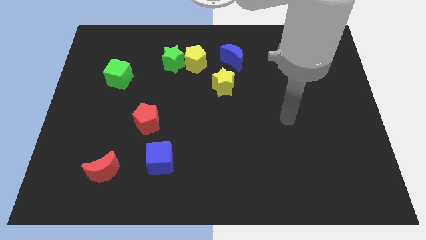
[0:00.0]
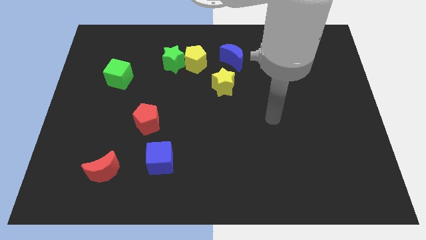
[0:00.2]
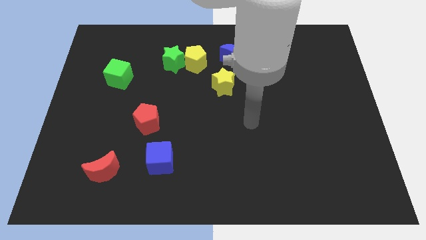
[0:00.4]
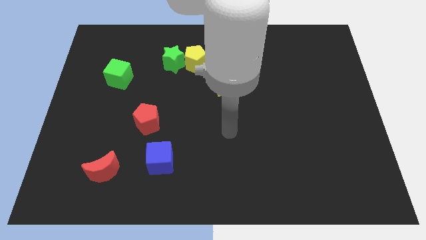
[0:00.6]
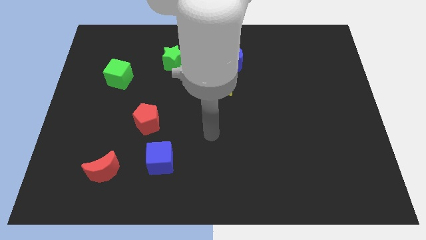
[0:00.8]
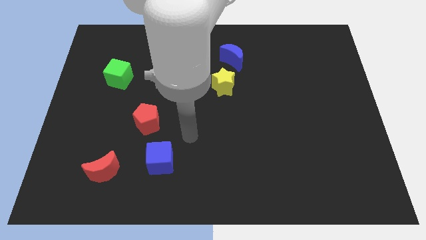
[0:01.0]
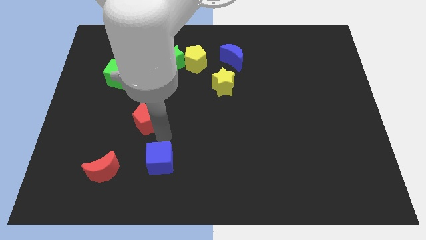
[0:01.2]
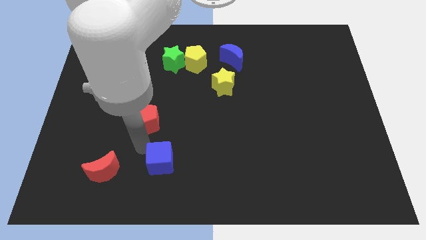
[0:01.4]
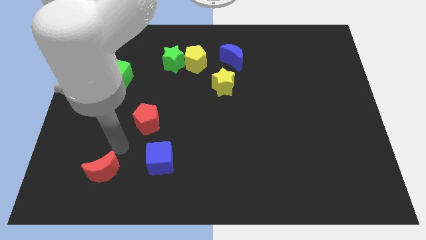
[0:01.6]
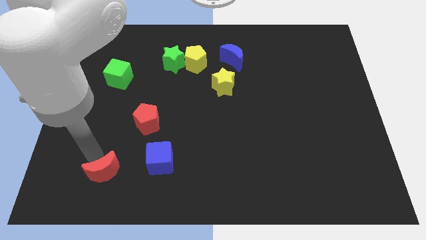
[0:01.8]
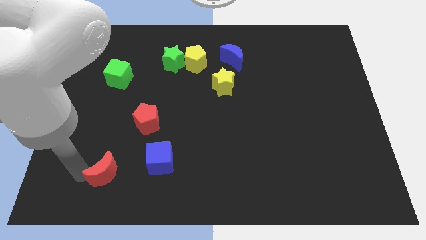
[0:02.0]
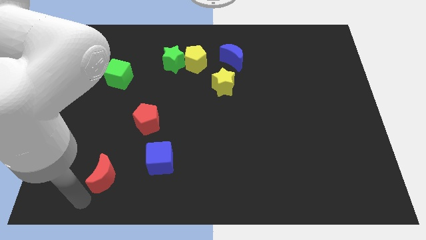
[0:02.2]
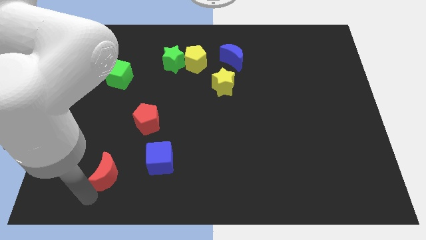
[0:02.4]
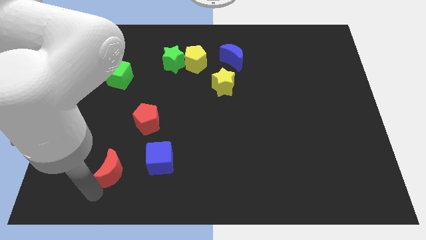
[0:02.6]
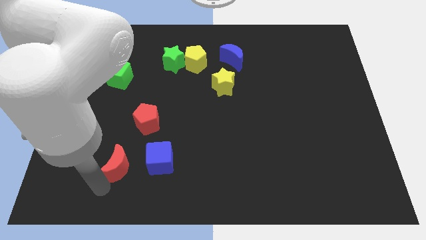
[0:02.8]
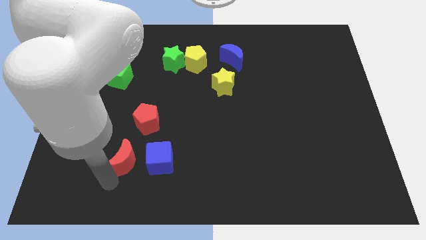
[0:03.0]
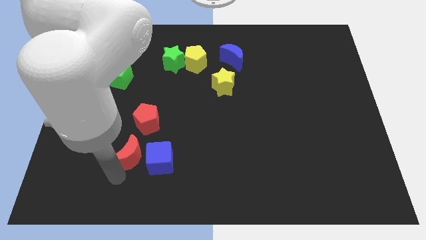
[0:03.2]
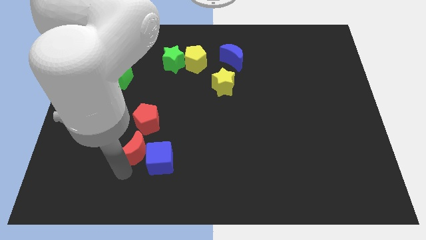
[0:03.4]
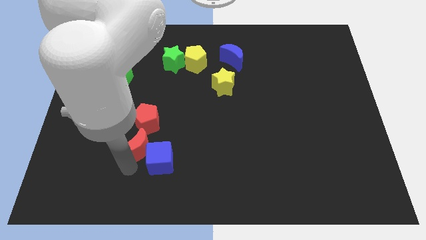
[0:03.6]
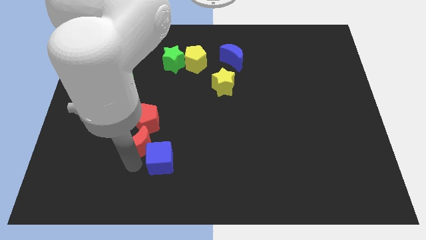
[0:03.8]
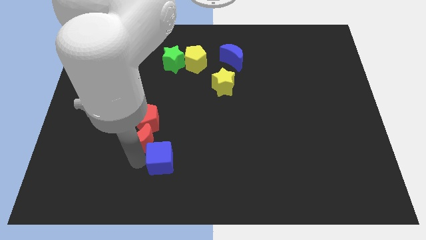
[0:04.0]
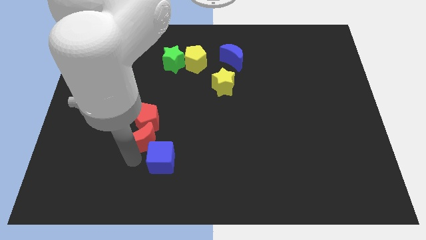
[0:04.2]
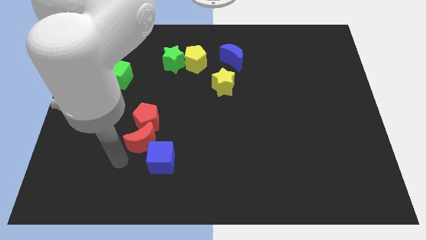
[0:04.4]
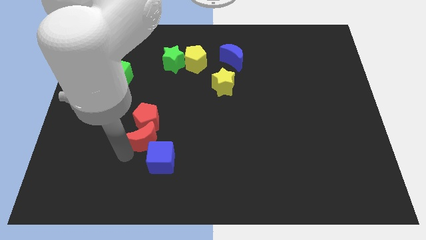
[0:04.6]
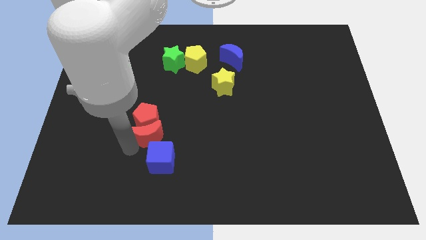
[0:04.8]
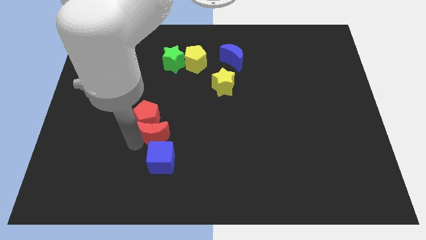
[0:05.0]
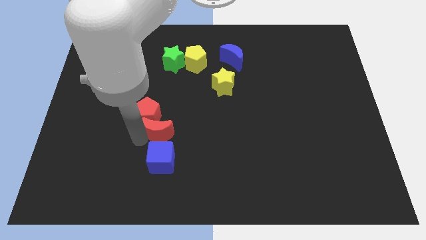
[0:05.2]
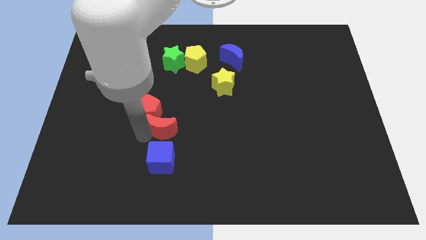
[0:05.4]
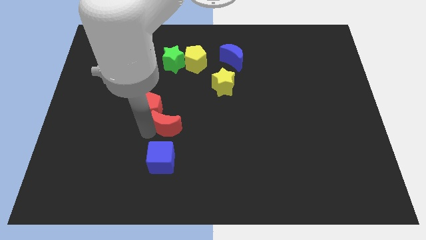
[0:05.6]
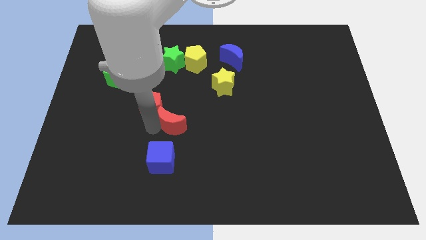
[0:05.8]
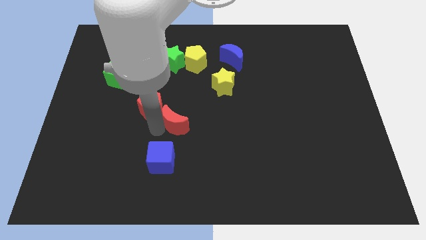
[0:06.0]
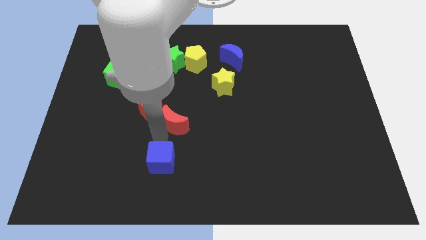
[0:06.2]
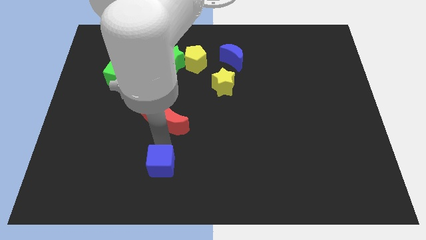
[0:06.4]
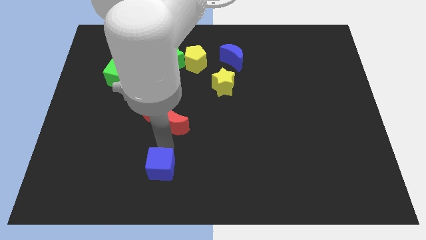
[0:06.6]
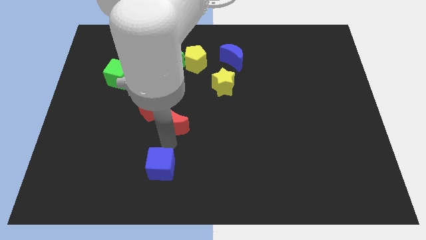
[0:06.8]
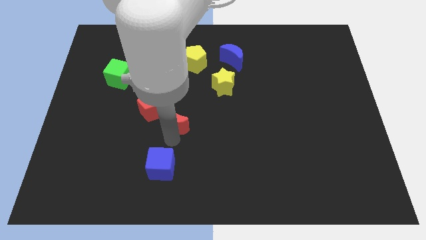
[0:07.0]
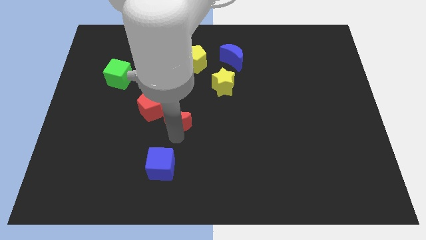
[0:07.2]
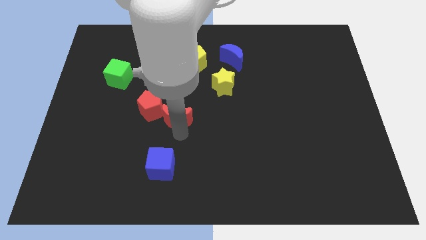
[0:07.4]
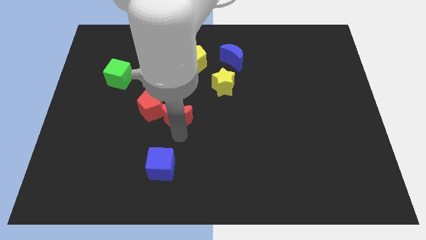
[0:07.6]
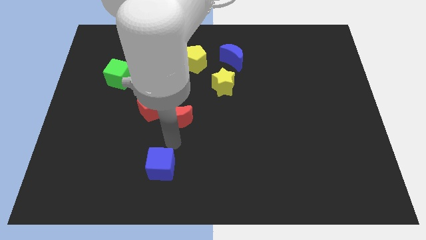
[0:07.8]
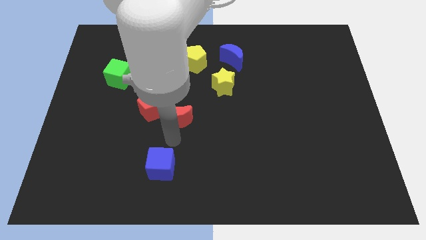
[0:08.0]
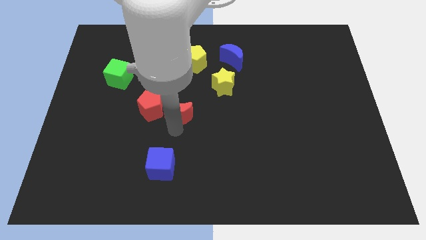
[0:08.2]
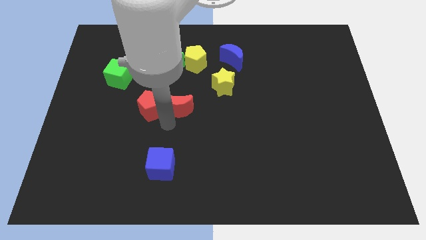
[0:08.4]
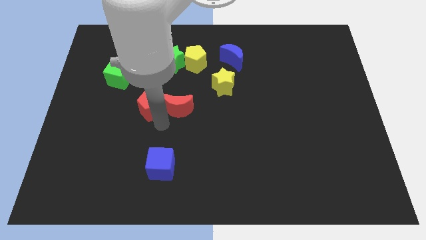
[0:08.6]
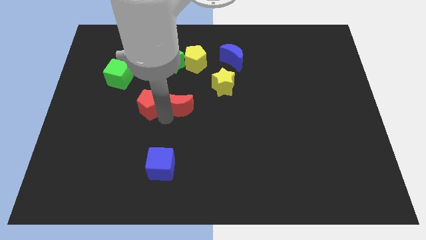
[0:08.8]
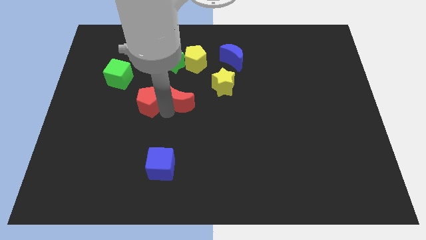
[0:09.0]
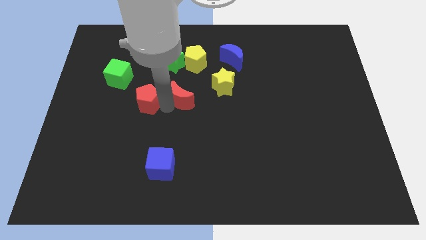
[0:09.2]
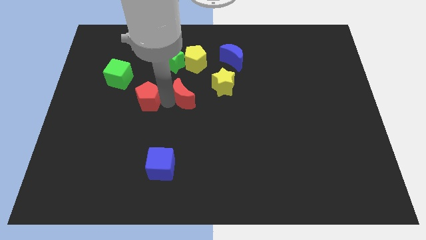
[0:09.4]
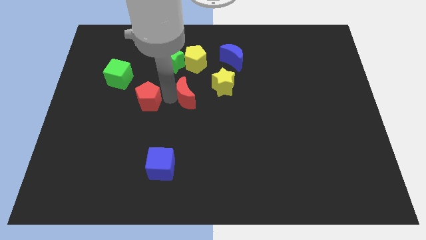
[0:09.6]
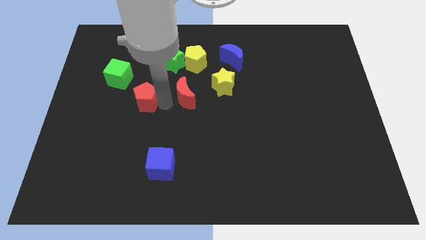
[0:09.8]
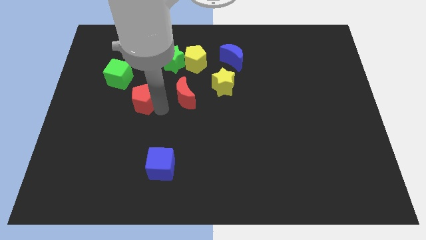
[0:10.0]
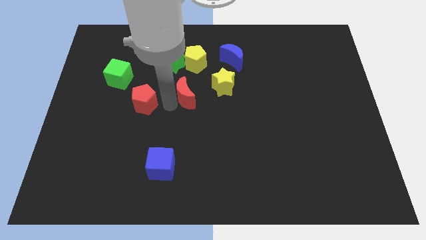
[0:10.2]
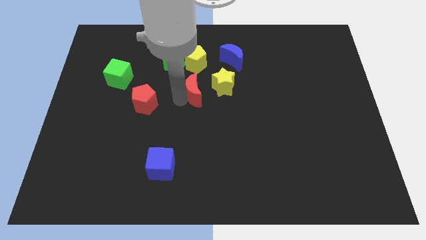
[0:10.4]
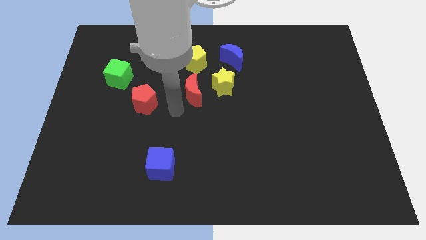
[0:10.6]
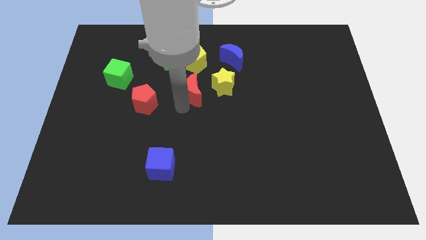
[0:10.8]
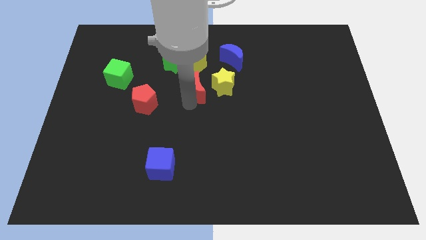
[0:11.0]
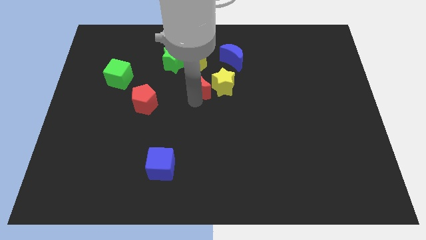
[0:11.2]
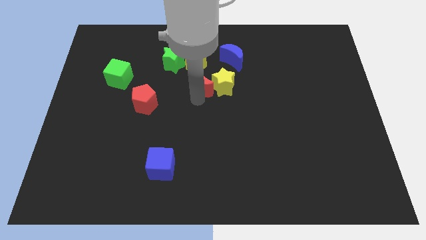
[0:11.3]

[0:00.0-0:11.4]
move the red moon diagonally down and to the left of the blue moon

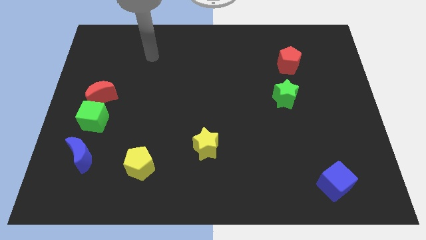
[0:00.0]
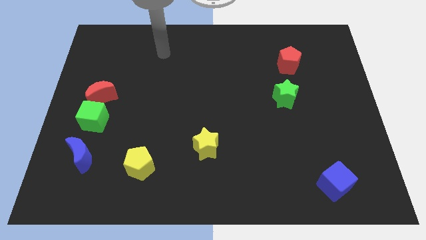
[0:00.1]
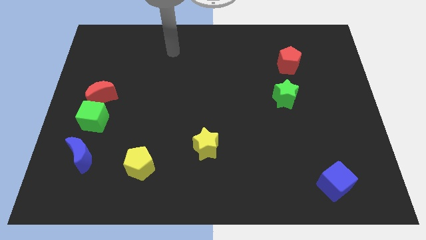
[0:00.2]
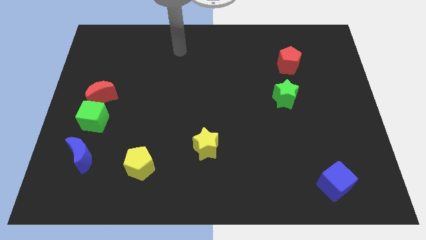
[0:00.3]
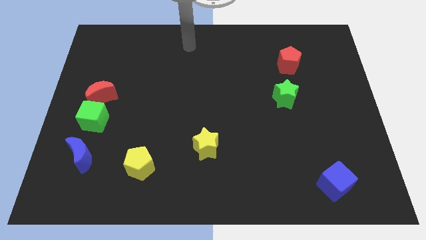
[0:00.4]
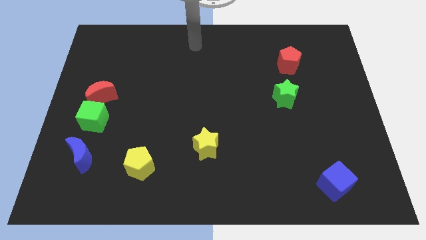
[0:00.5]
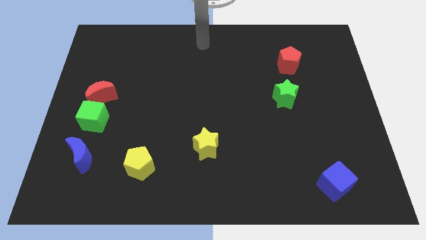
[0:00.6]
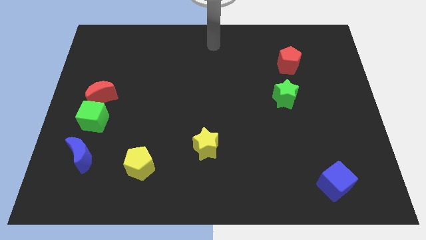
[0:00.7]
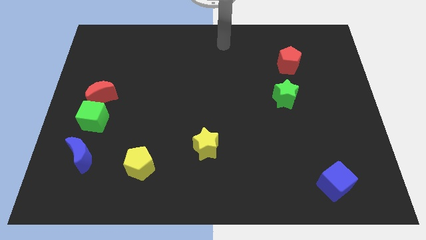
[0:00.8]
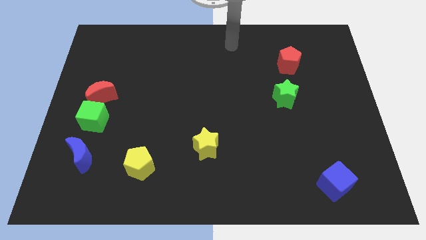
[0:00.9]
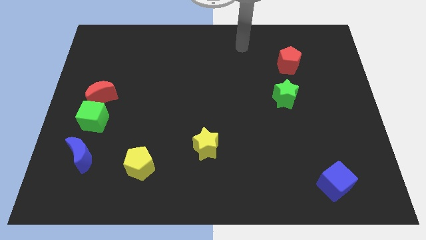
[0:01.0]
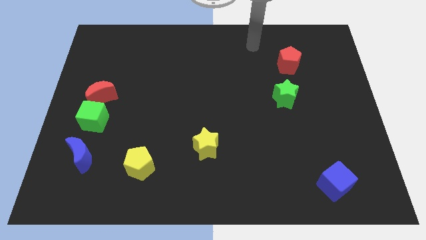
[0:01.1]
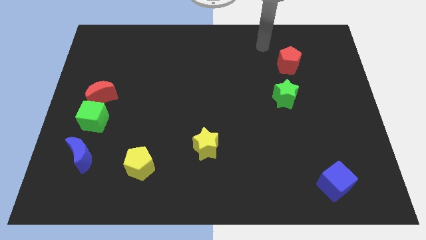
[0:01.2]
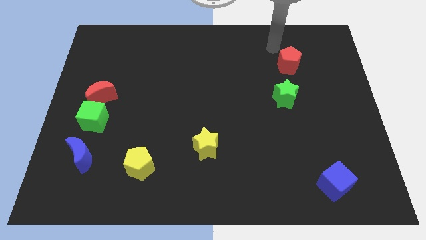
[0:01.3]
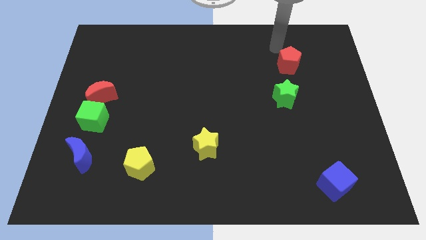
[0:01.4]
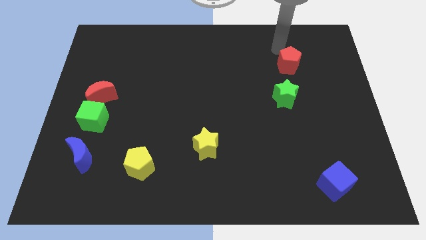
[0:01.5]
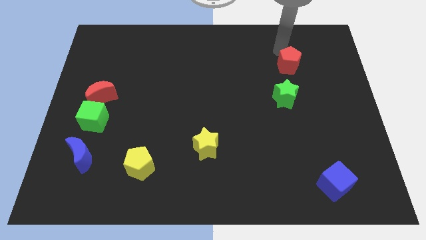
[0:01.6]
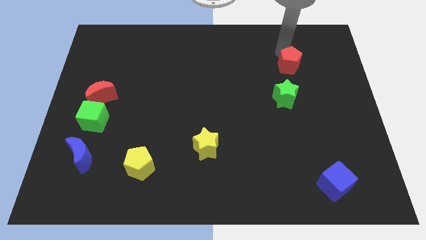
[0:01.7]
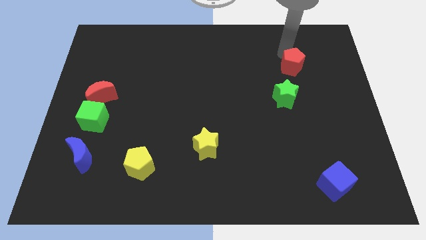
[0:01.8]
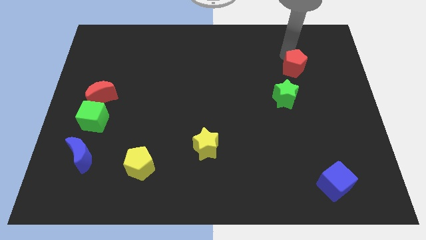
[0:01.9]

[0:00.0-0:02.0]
move the red pentagon diagonally up and to the right of the green star

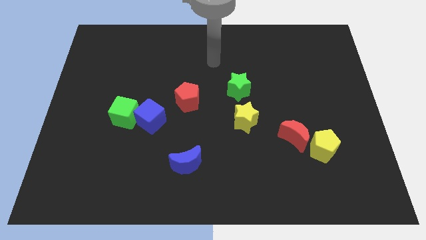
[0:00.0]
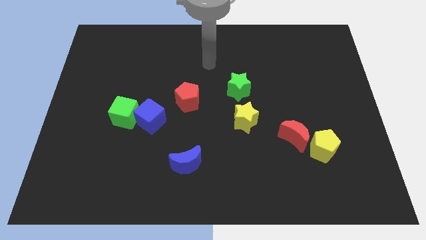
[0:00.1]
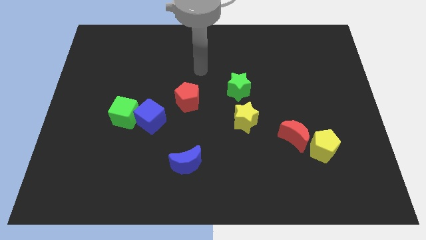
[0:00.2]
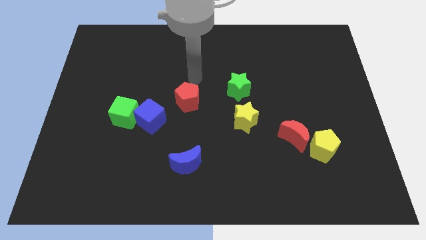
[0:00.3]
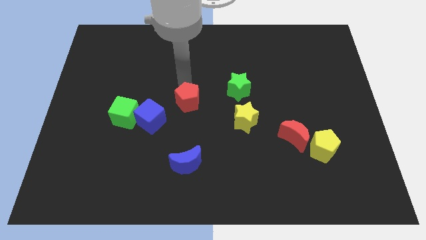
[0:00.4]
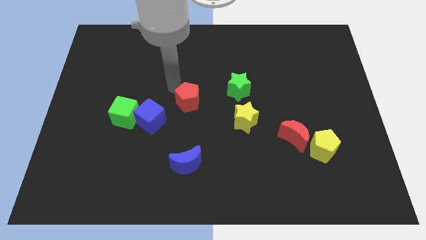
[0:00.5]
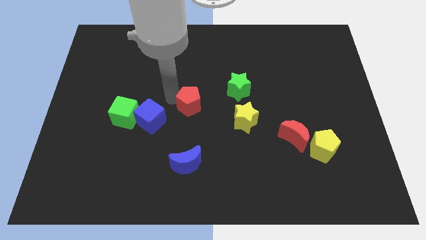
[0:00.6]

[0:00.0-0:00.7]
push the blue cube to the left side of the red pentagon
